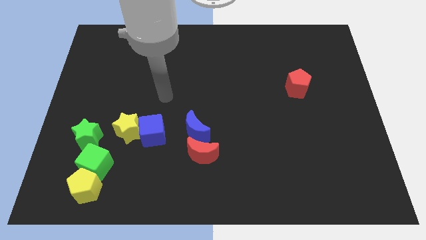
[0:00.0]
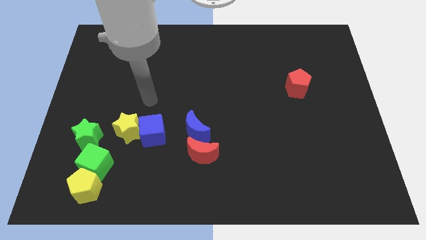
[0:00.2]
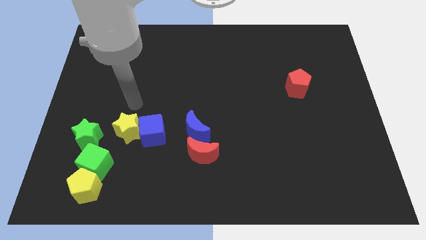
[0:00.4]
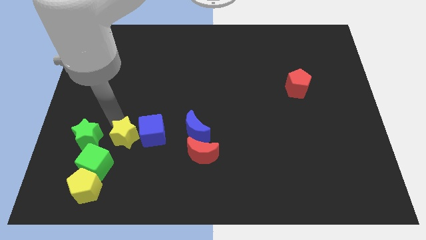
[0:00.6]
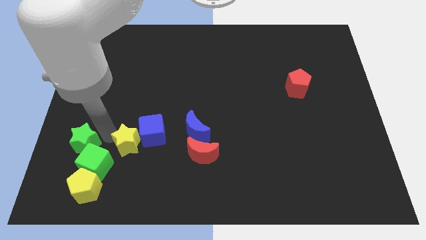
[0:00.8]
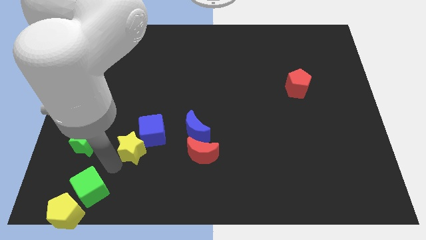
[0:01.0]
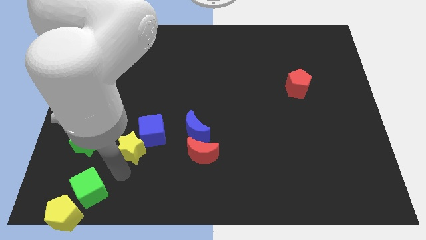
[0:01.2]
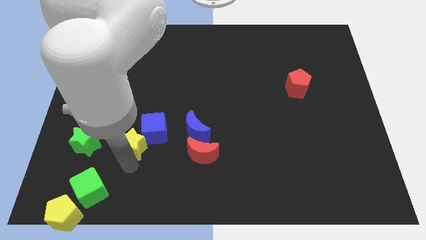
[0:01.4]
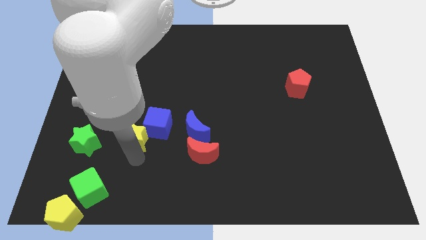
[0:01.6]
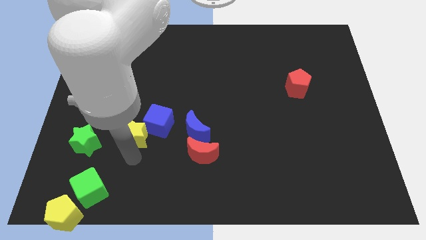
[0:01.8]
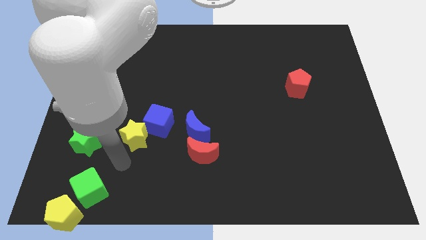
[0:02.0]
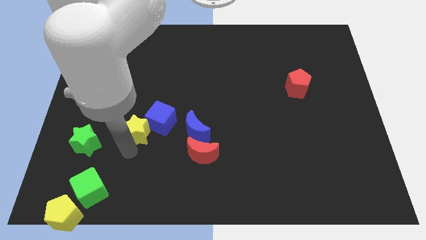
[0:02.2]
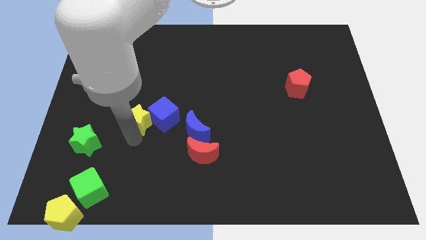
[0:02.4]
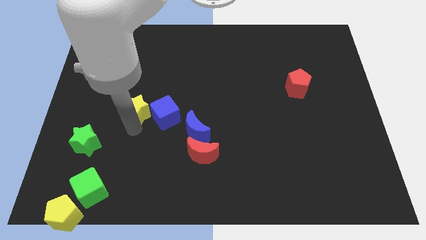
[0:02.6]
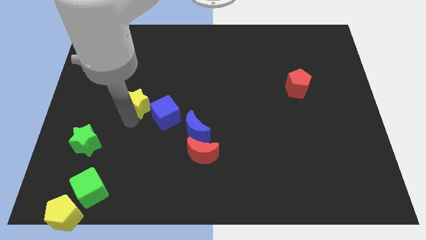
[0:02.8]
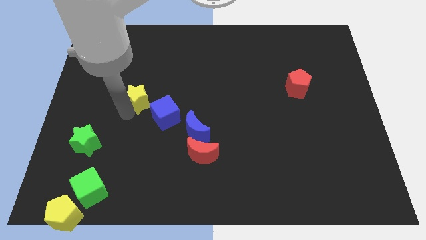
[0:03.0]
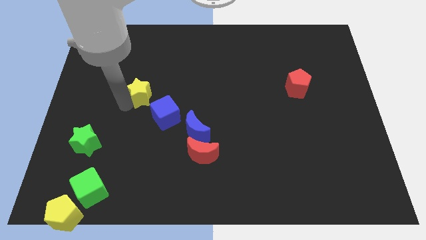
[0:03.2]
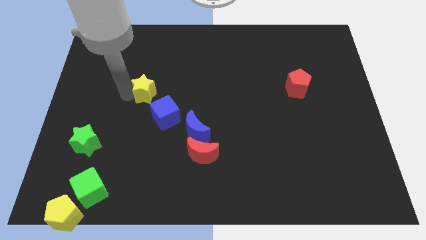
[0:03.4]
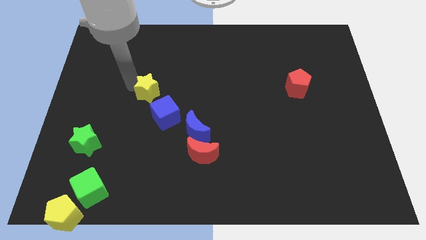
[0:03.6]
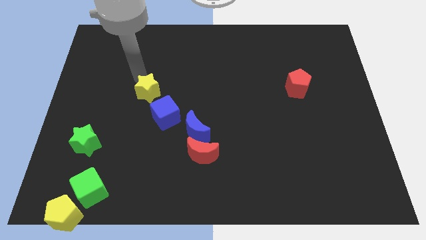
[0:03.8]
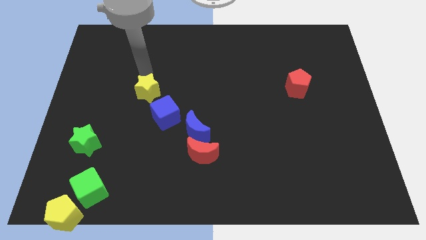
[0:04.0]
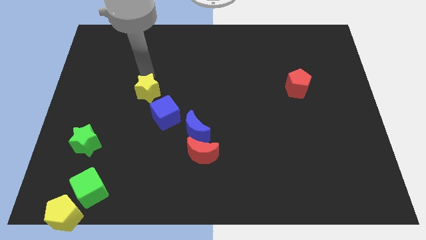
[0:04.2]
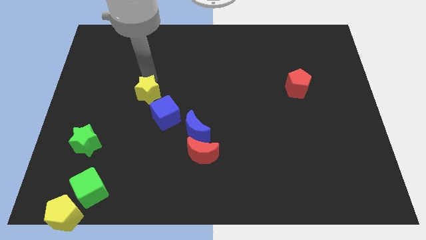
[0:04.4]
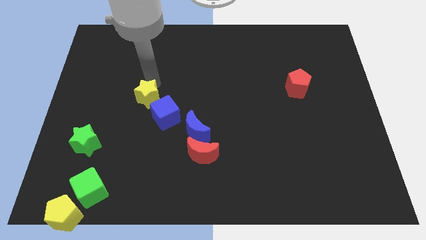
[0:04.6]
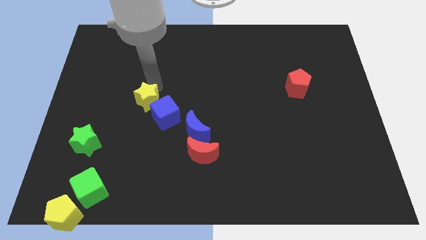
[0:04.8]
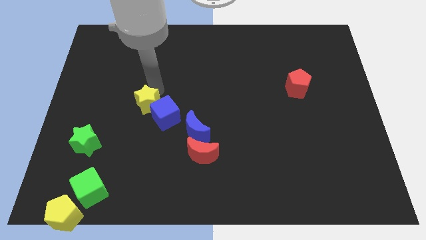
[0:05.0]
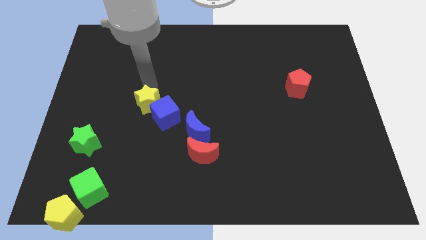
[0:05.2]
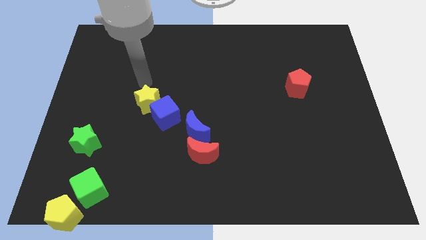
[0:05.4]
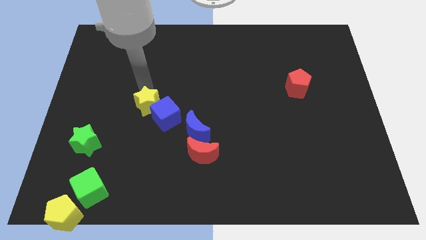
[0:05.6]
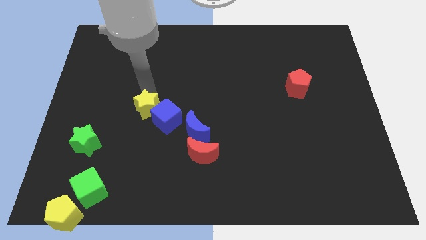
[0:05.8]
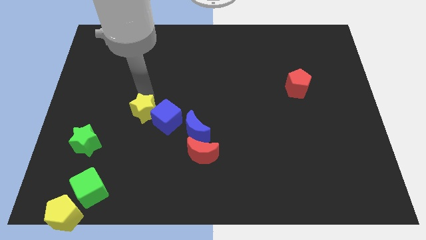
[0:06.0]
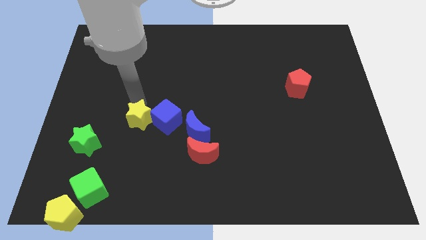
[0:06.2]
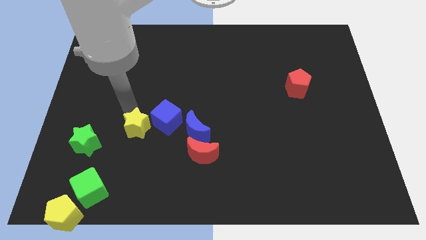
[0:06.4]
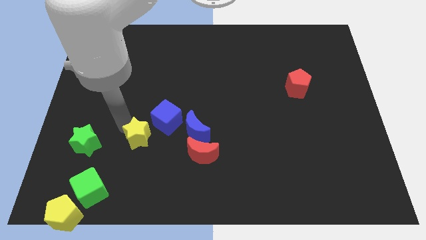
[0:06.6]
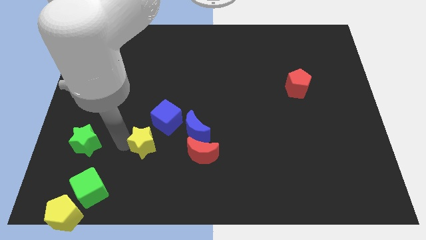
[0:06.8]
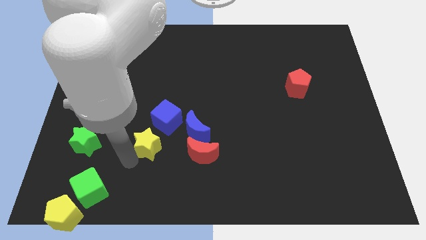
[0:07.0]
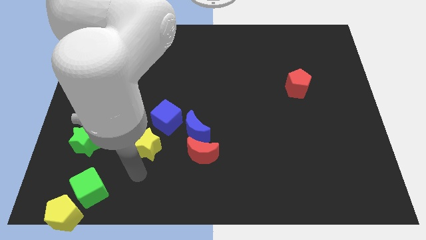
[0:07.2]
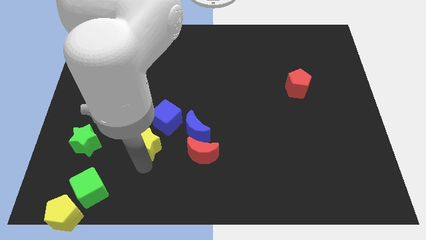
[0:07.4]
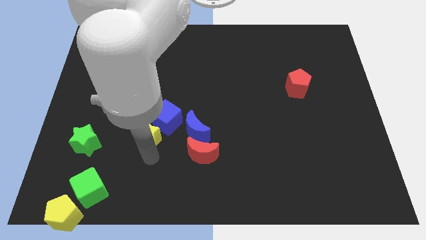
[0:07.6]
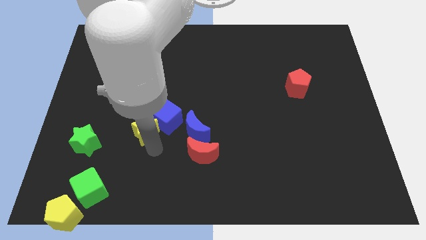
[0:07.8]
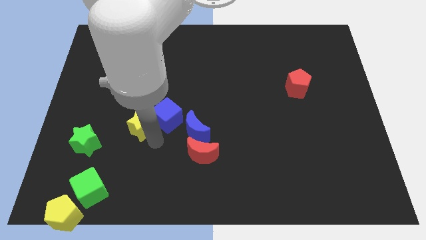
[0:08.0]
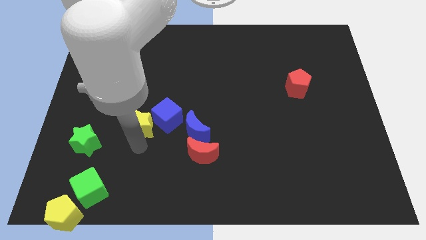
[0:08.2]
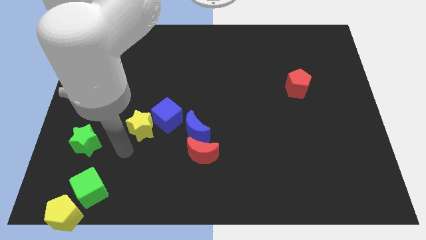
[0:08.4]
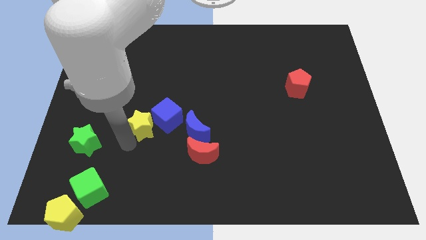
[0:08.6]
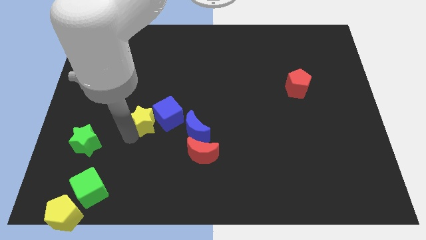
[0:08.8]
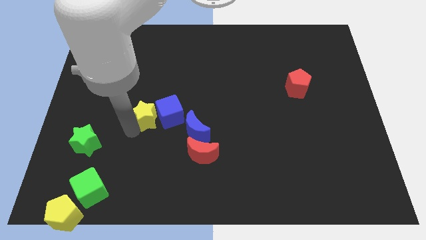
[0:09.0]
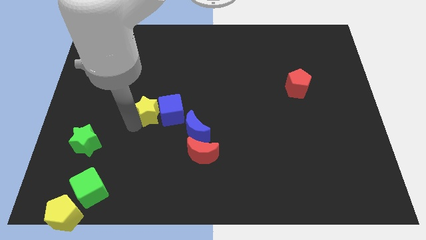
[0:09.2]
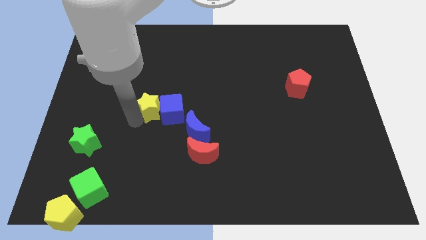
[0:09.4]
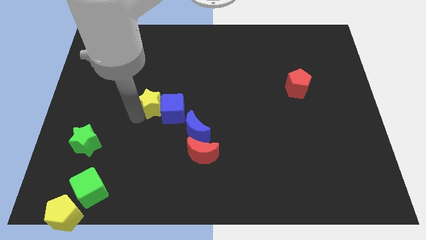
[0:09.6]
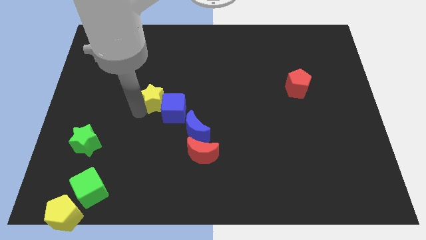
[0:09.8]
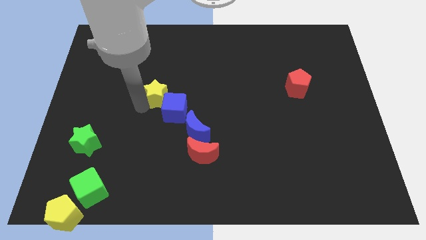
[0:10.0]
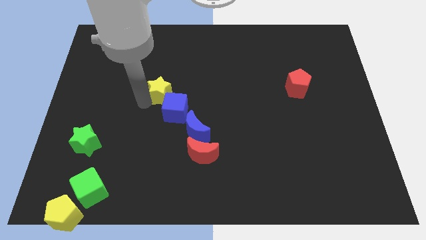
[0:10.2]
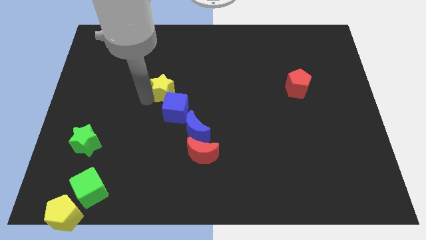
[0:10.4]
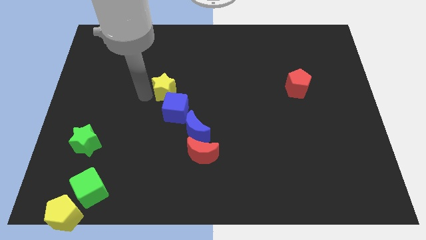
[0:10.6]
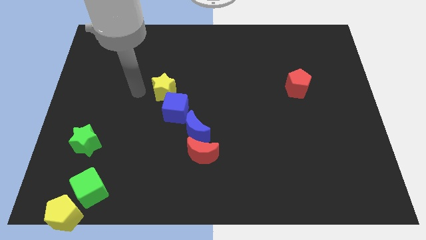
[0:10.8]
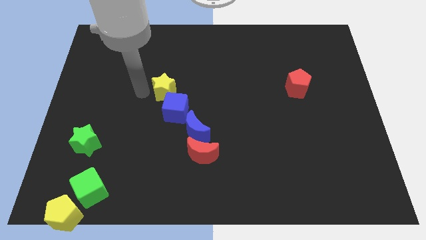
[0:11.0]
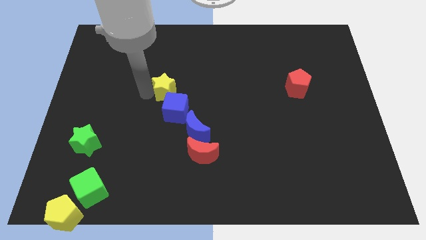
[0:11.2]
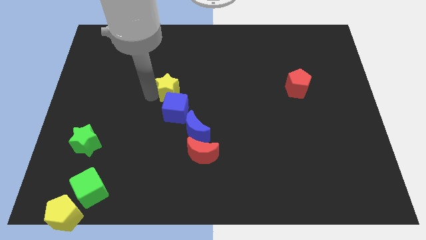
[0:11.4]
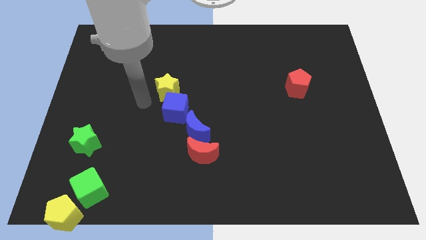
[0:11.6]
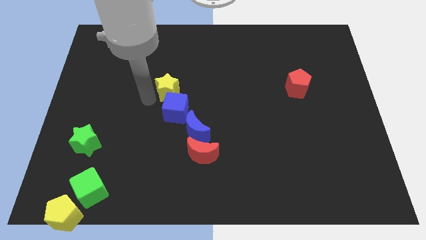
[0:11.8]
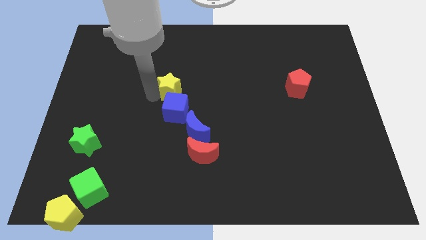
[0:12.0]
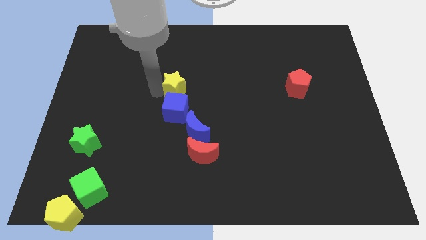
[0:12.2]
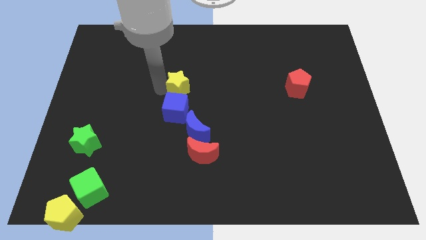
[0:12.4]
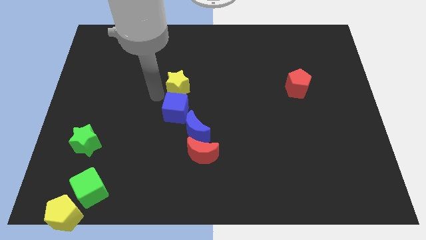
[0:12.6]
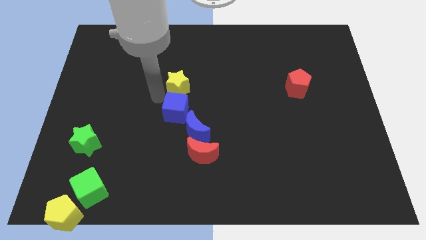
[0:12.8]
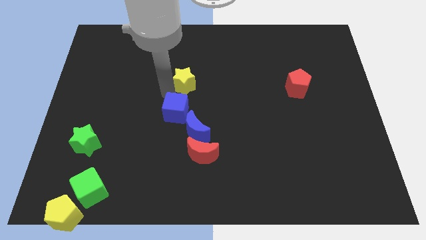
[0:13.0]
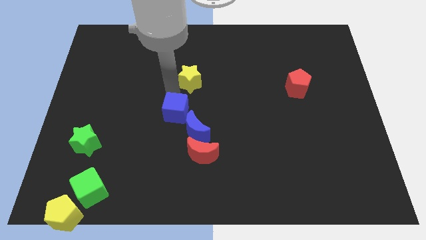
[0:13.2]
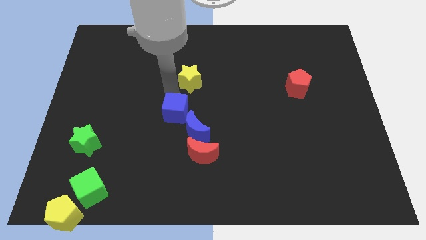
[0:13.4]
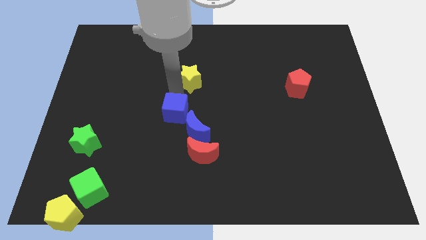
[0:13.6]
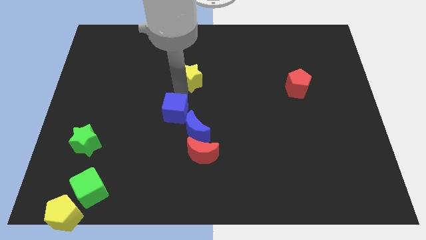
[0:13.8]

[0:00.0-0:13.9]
push the yellow star diagonally up and to the right

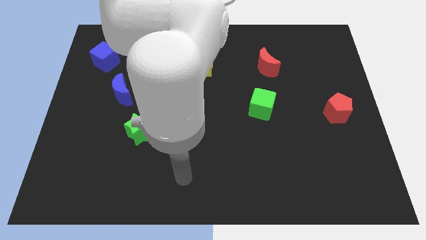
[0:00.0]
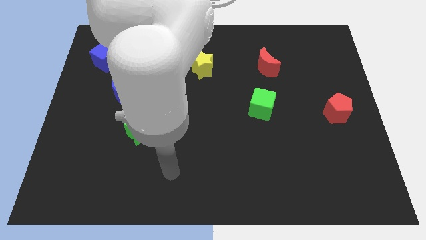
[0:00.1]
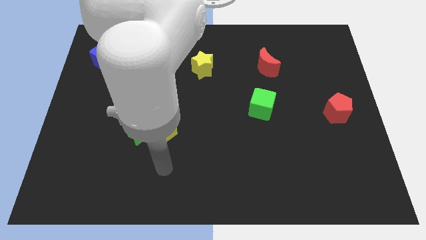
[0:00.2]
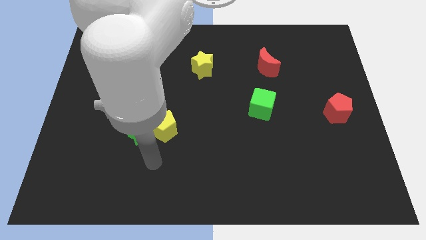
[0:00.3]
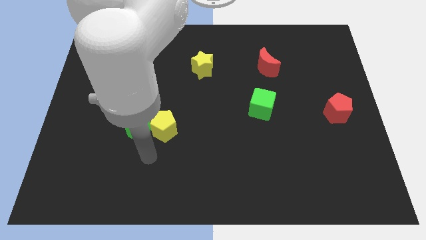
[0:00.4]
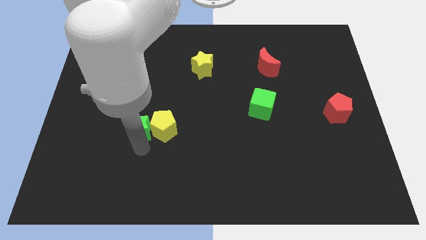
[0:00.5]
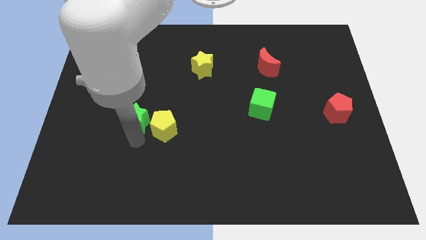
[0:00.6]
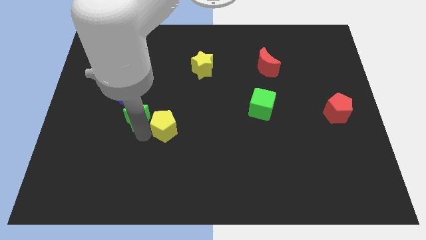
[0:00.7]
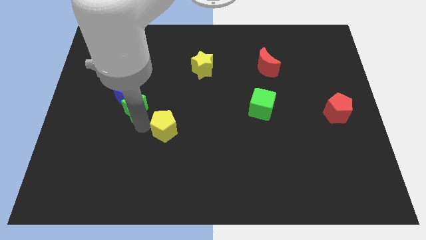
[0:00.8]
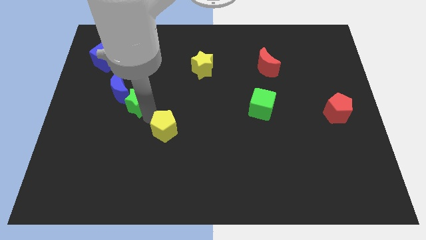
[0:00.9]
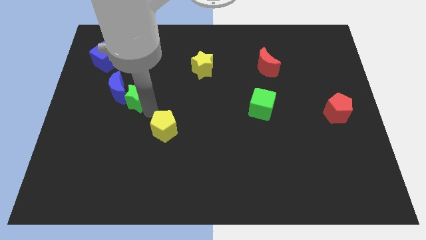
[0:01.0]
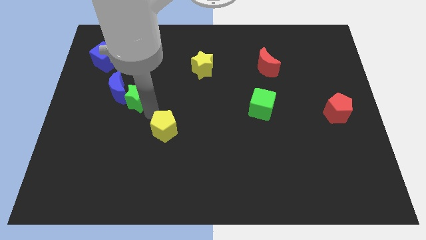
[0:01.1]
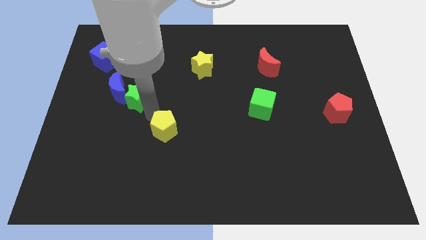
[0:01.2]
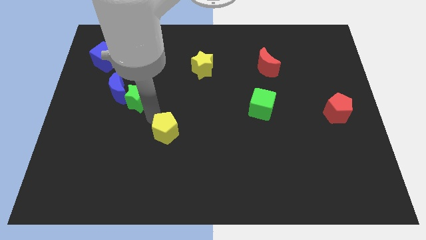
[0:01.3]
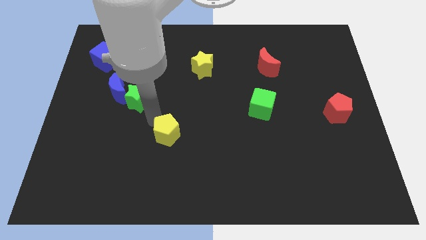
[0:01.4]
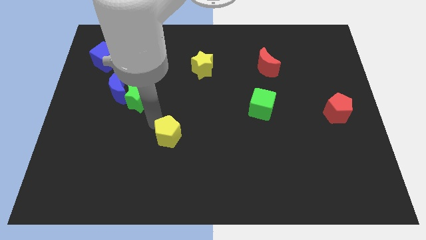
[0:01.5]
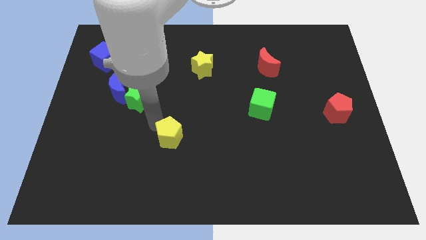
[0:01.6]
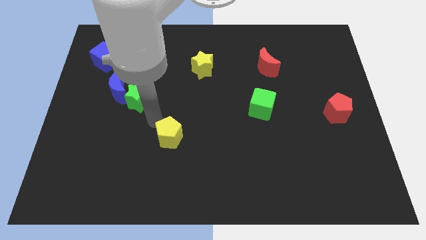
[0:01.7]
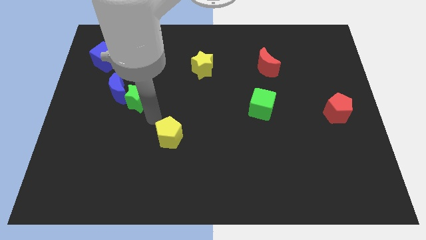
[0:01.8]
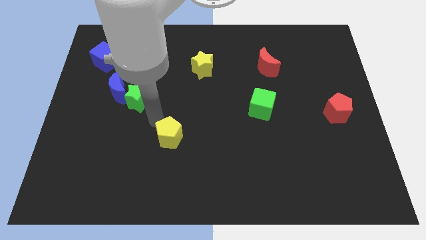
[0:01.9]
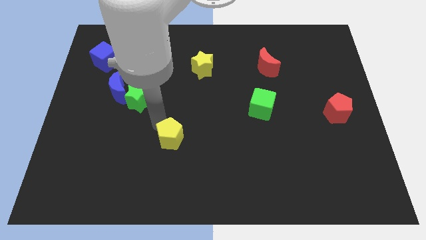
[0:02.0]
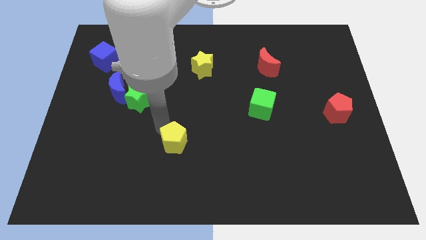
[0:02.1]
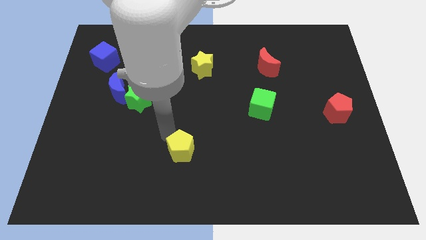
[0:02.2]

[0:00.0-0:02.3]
push the yellow pentagon a little bit downwards and to the right diagonally
